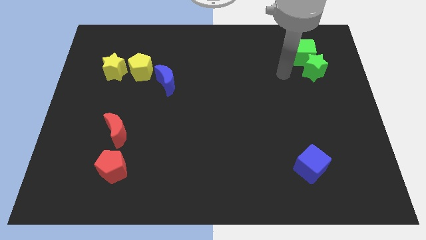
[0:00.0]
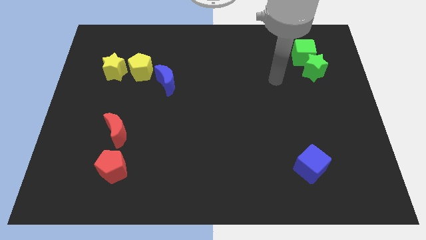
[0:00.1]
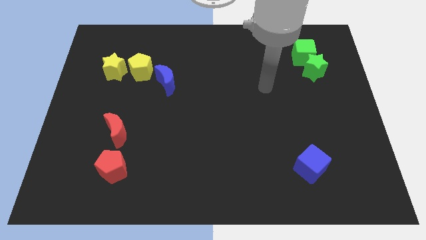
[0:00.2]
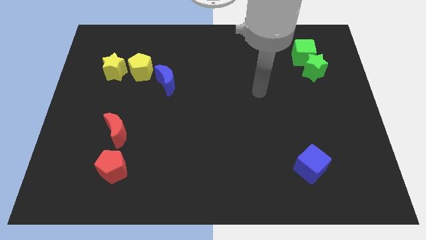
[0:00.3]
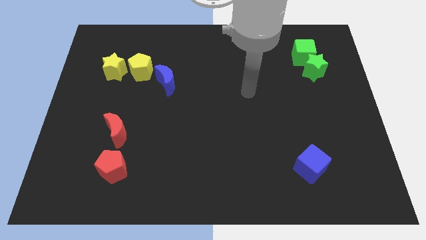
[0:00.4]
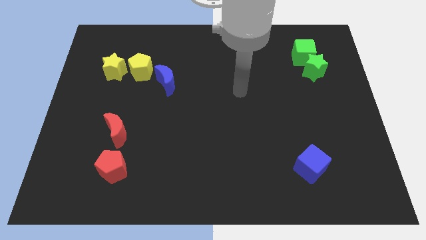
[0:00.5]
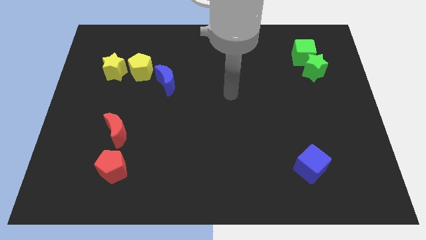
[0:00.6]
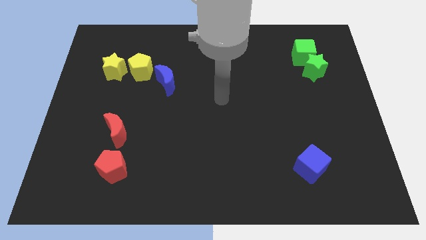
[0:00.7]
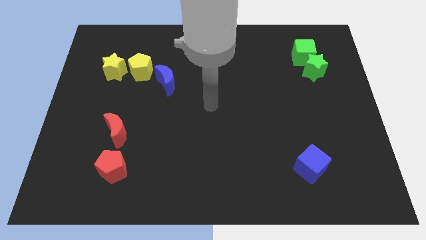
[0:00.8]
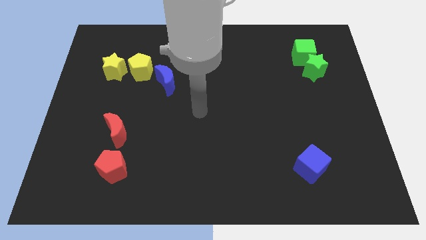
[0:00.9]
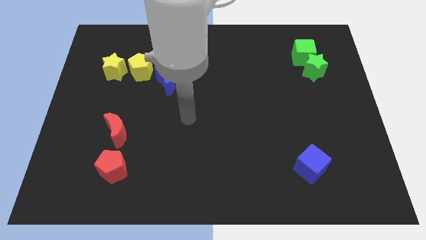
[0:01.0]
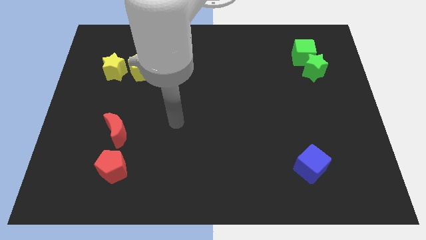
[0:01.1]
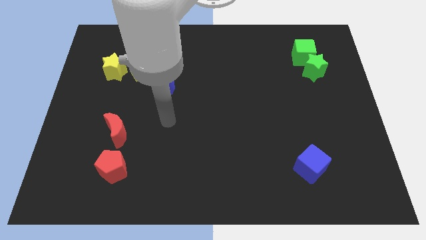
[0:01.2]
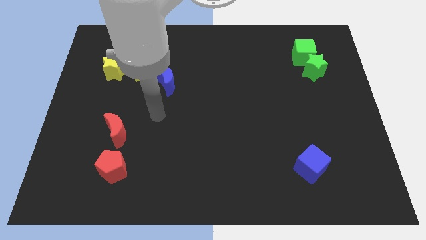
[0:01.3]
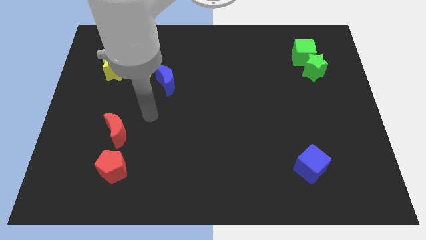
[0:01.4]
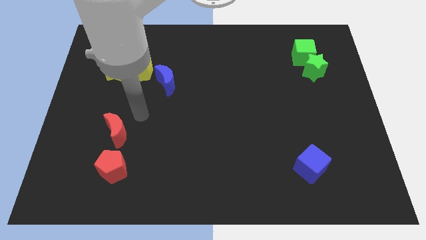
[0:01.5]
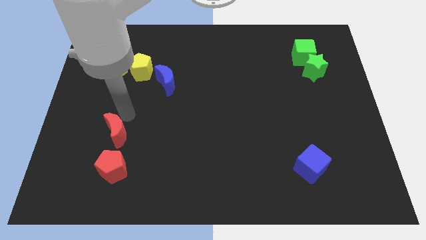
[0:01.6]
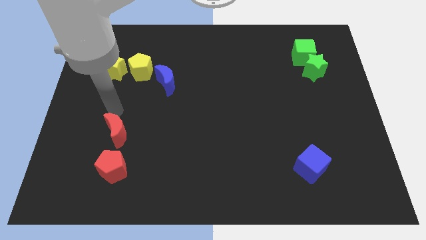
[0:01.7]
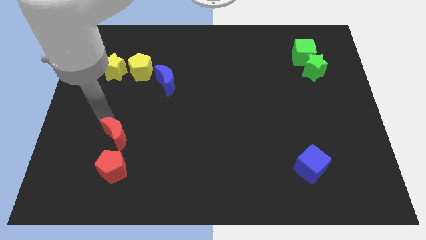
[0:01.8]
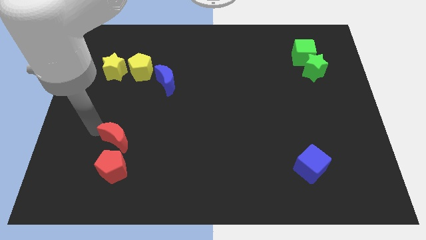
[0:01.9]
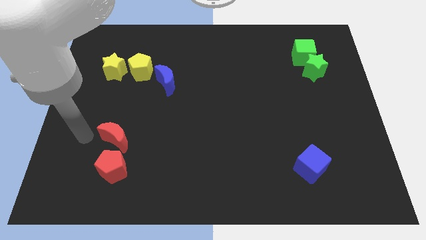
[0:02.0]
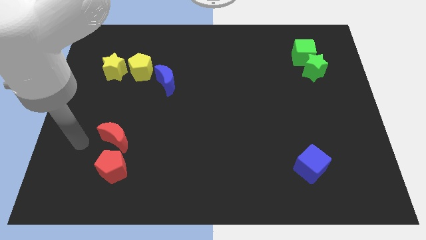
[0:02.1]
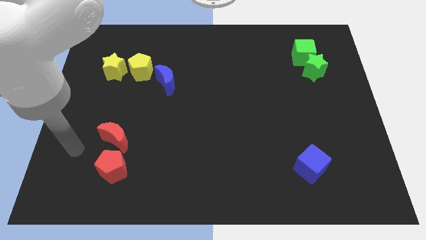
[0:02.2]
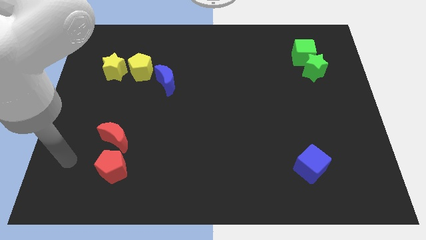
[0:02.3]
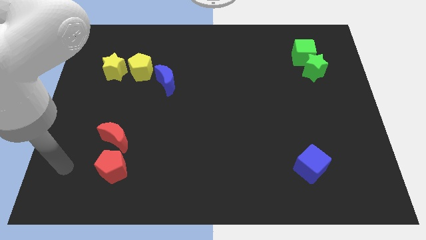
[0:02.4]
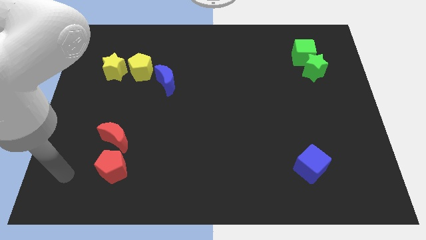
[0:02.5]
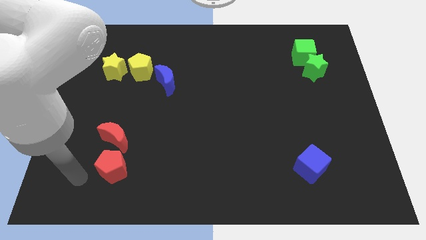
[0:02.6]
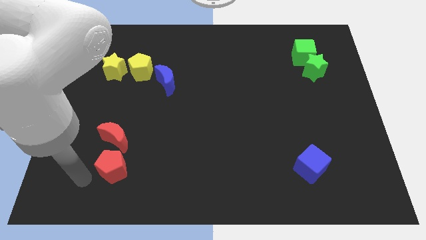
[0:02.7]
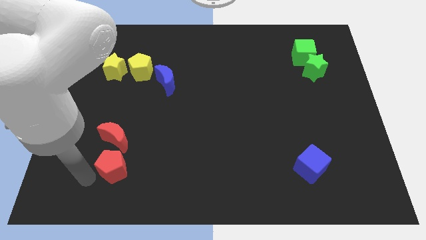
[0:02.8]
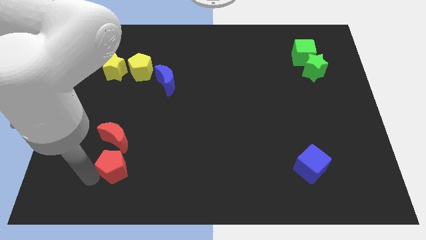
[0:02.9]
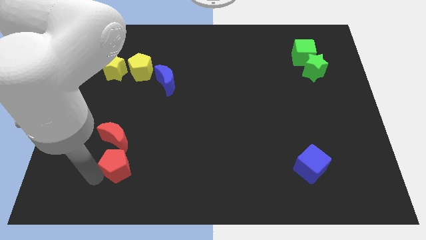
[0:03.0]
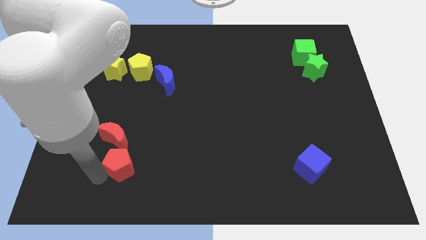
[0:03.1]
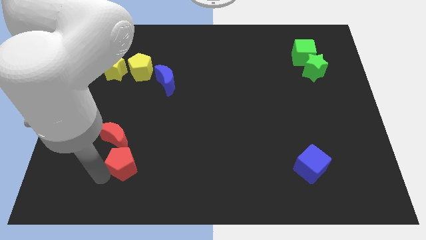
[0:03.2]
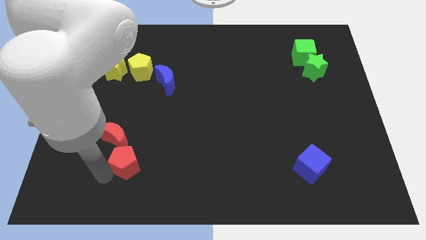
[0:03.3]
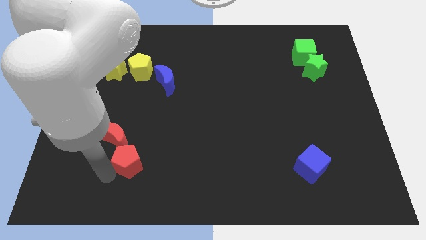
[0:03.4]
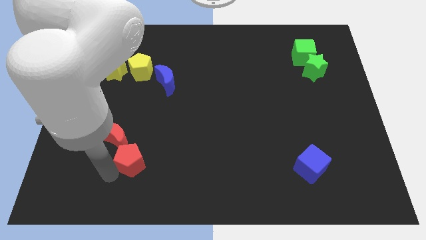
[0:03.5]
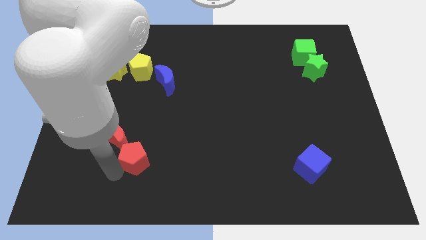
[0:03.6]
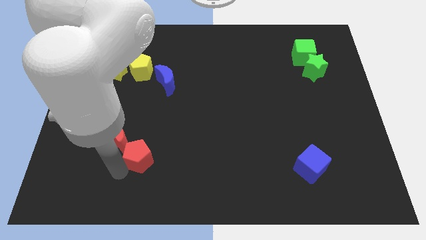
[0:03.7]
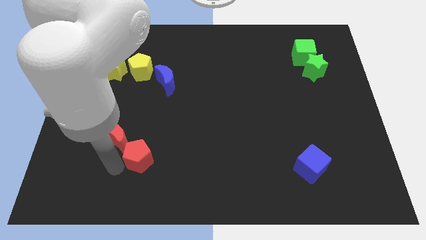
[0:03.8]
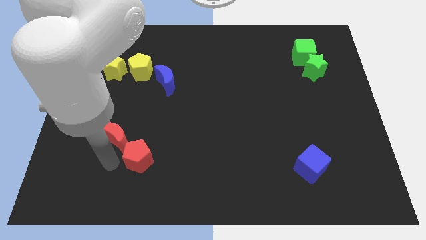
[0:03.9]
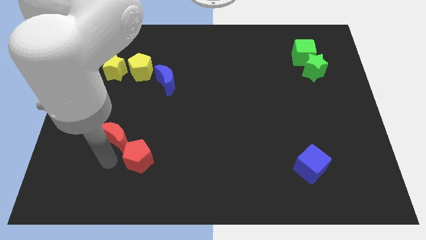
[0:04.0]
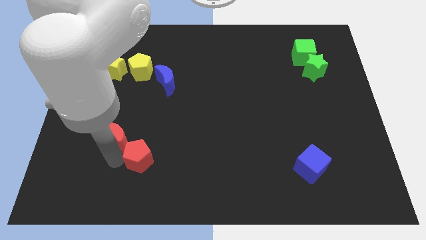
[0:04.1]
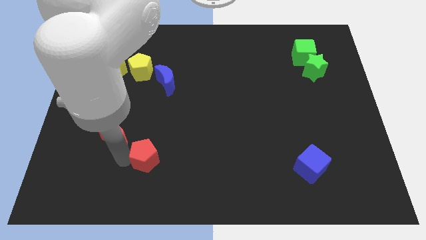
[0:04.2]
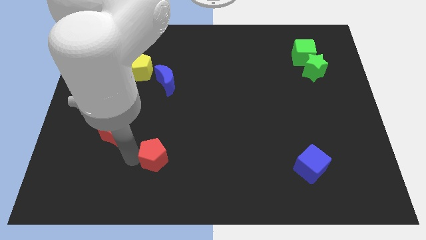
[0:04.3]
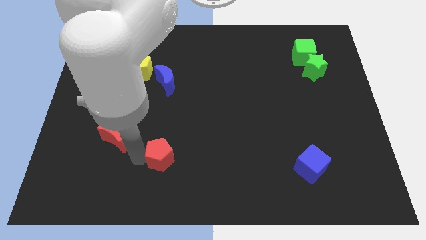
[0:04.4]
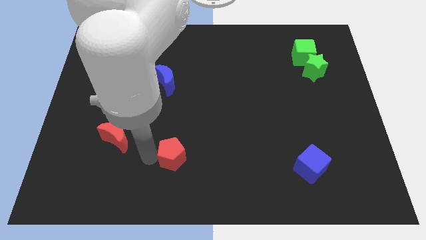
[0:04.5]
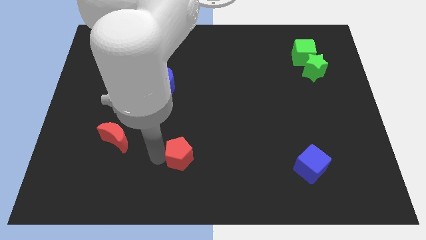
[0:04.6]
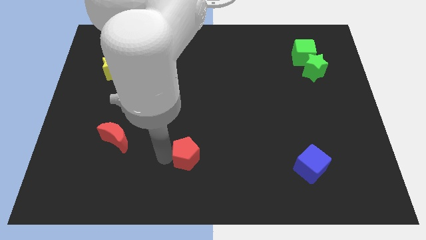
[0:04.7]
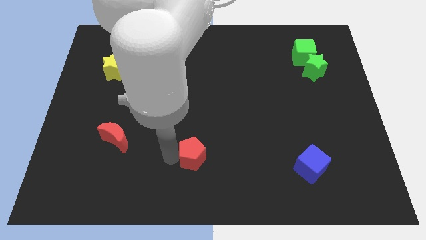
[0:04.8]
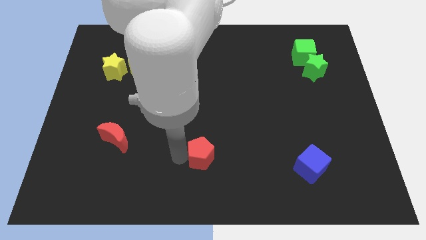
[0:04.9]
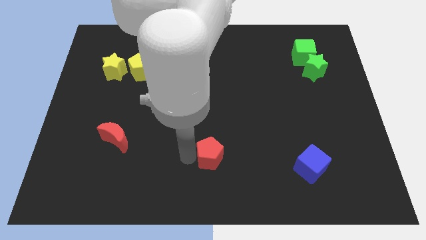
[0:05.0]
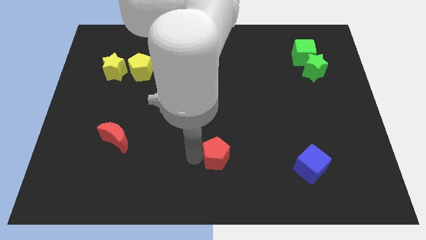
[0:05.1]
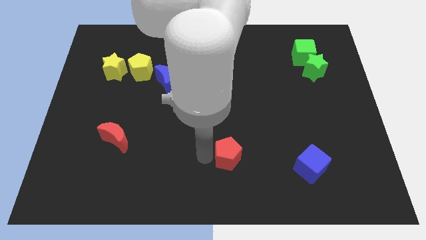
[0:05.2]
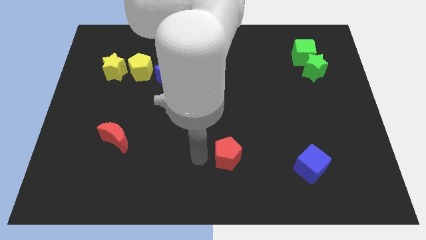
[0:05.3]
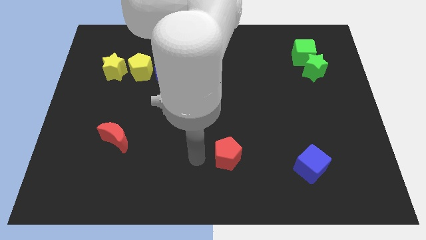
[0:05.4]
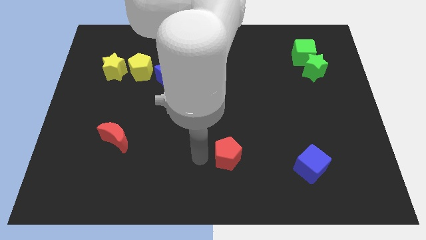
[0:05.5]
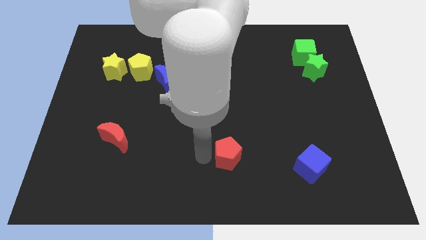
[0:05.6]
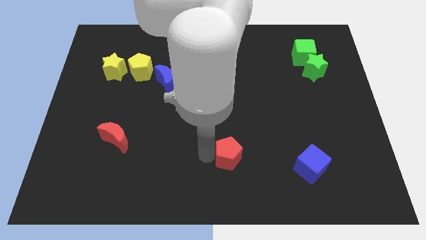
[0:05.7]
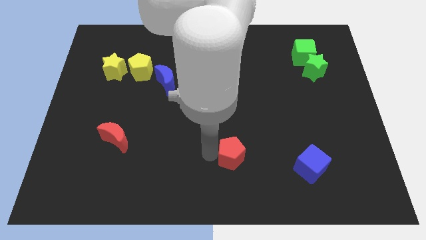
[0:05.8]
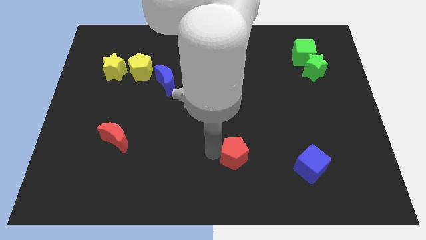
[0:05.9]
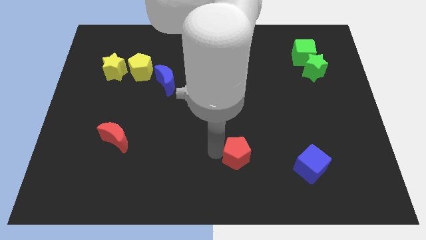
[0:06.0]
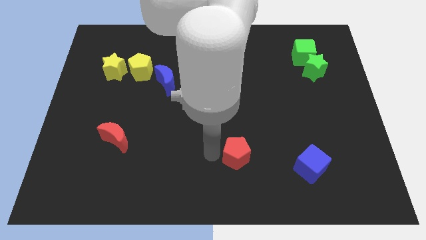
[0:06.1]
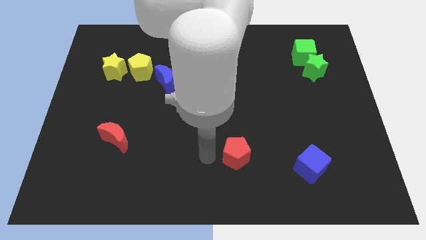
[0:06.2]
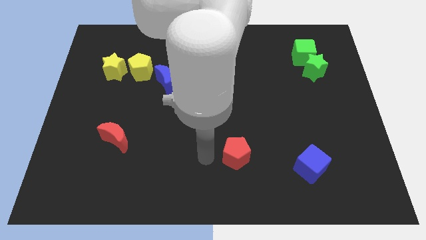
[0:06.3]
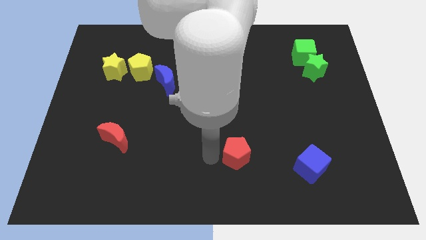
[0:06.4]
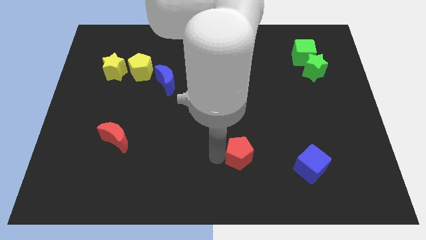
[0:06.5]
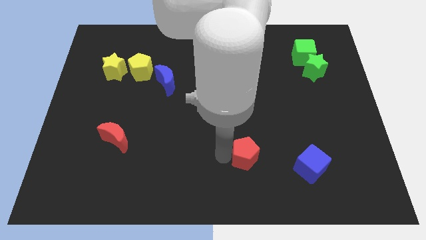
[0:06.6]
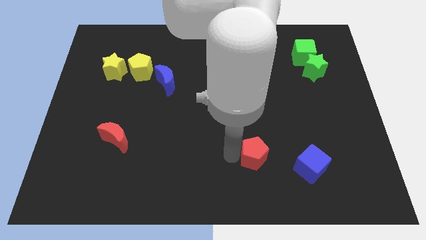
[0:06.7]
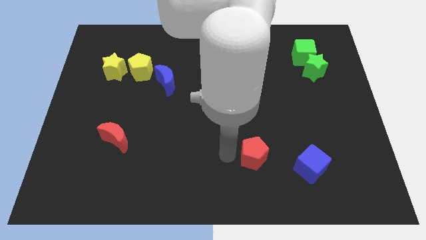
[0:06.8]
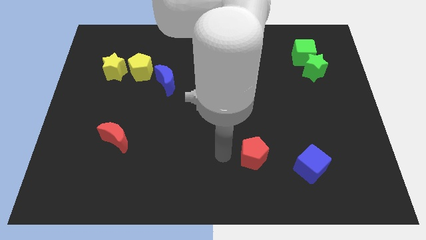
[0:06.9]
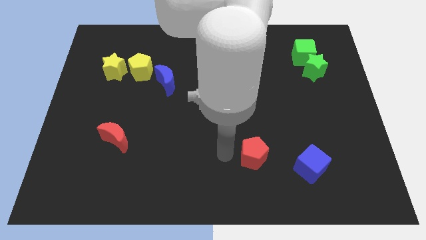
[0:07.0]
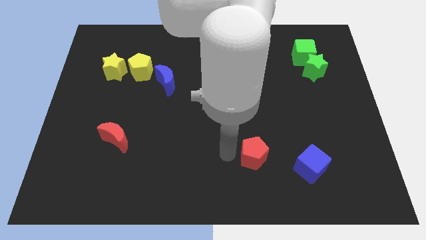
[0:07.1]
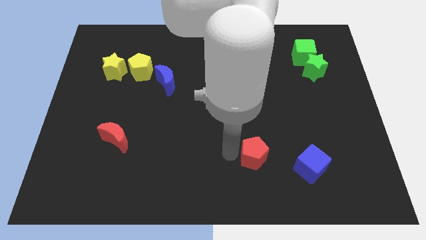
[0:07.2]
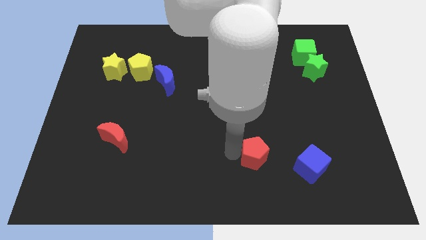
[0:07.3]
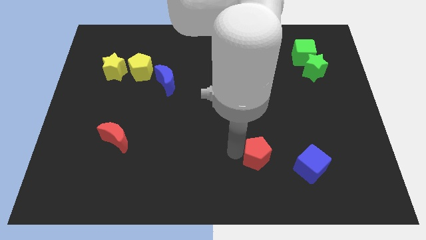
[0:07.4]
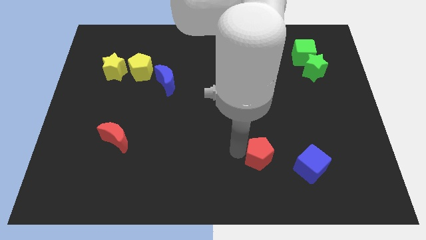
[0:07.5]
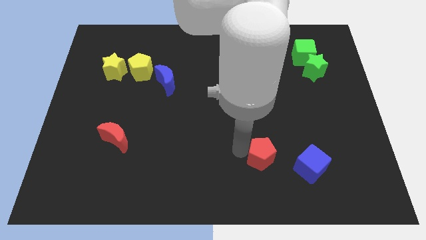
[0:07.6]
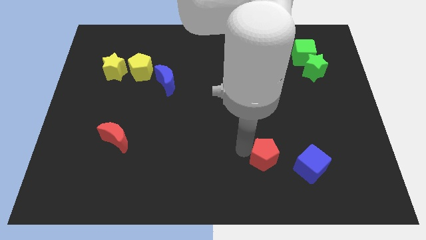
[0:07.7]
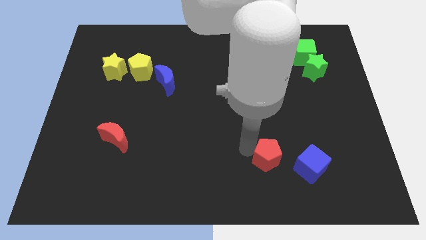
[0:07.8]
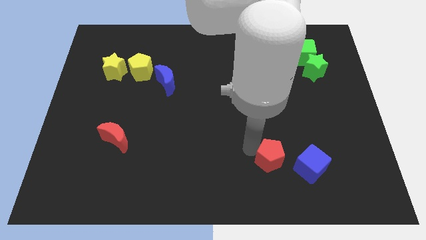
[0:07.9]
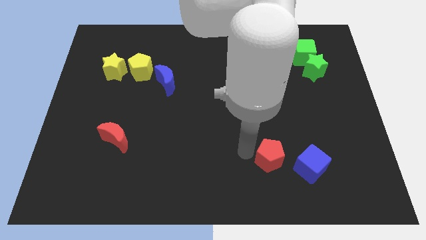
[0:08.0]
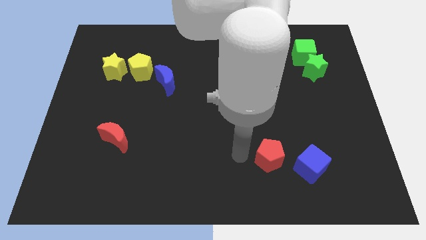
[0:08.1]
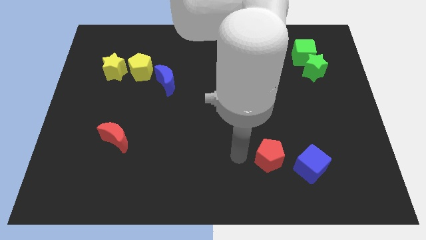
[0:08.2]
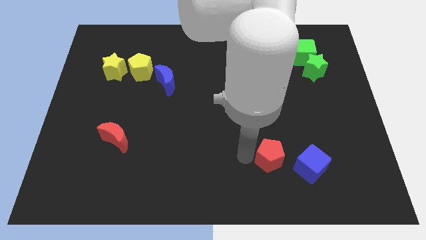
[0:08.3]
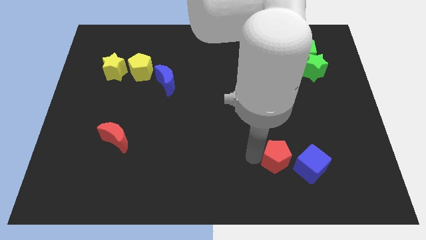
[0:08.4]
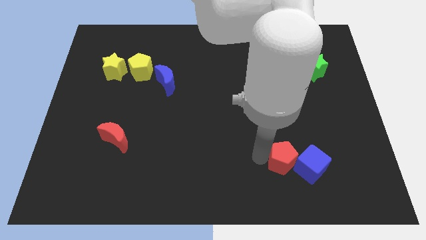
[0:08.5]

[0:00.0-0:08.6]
put the red pentagon to the blue cube
